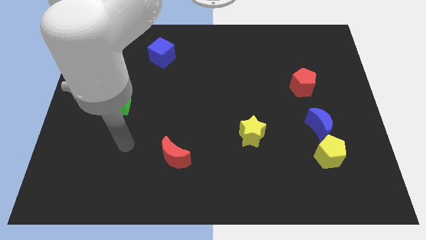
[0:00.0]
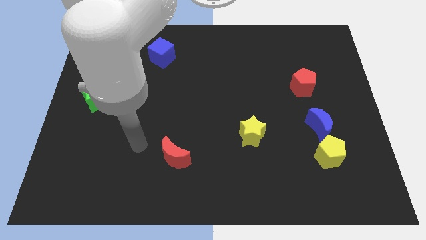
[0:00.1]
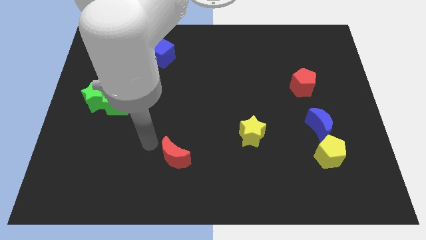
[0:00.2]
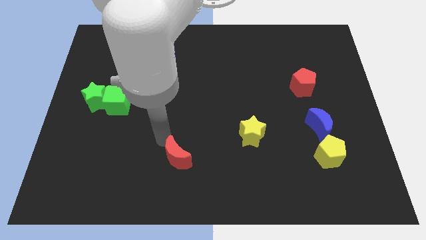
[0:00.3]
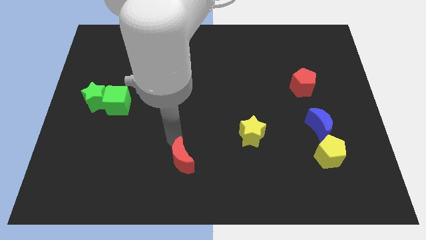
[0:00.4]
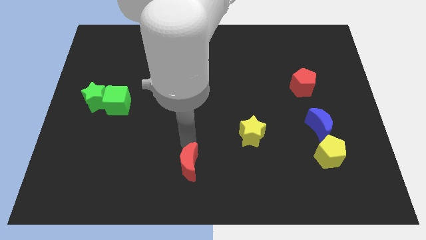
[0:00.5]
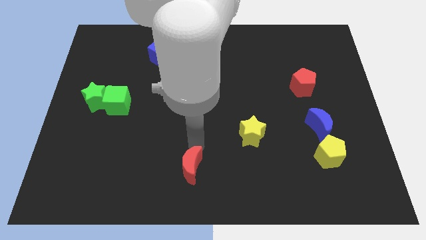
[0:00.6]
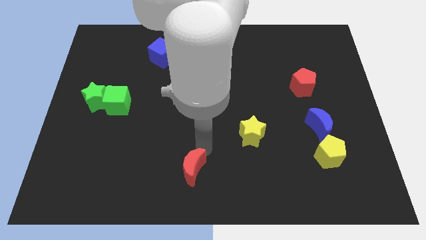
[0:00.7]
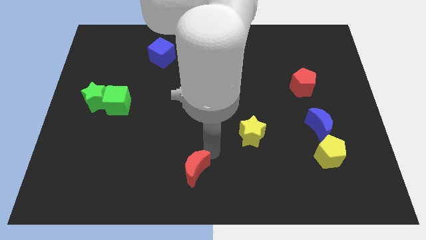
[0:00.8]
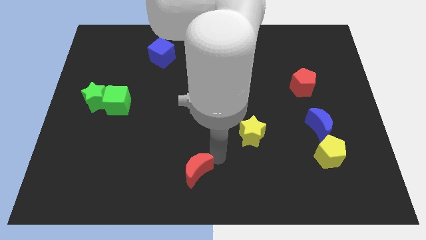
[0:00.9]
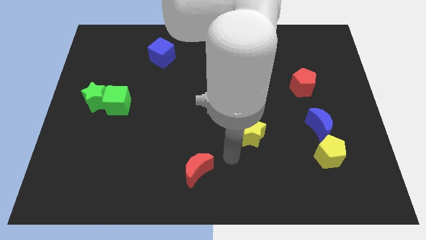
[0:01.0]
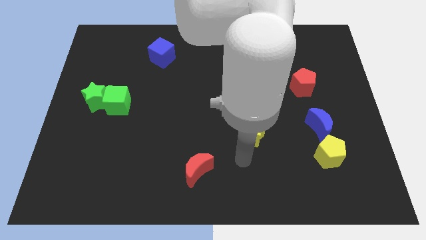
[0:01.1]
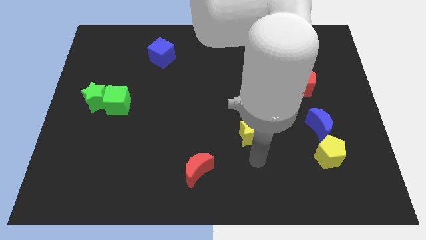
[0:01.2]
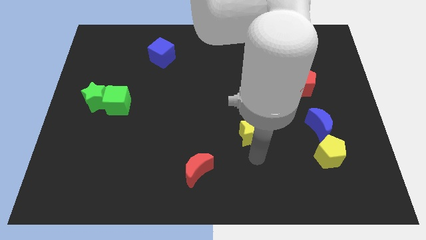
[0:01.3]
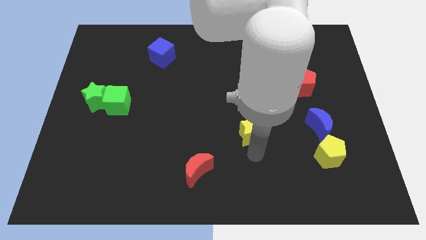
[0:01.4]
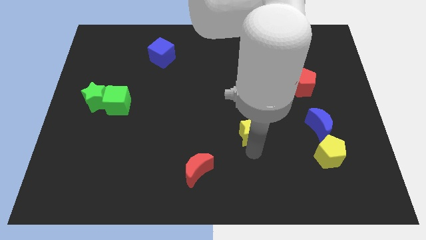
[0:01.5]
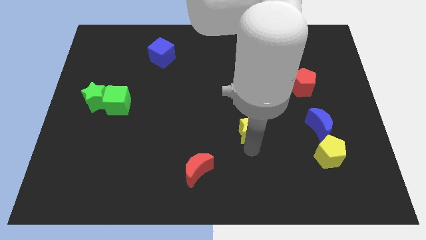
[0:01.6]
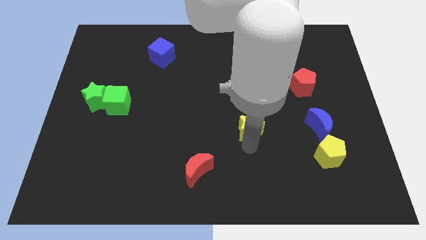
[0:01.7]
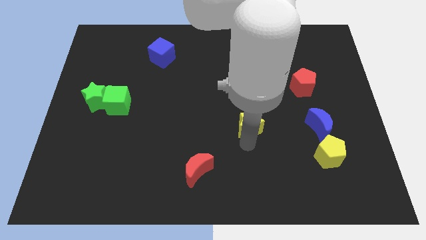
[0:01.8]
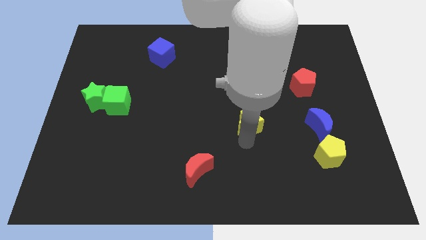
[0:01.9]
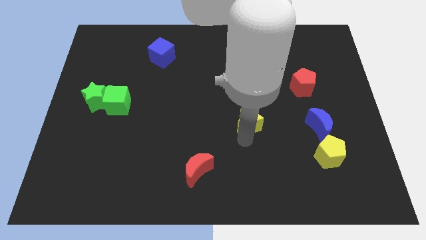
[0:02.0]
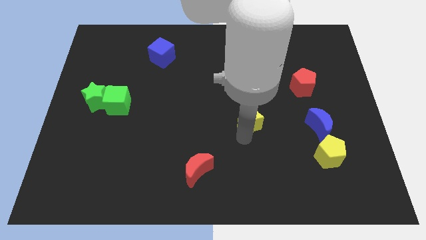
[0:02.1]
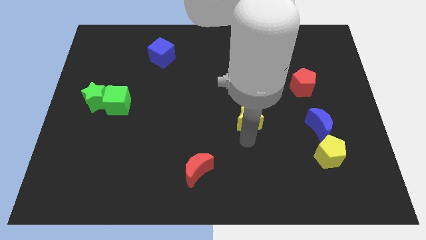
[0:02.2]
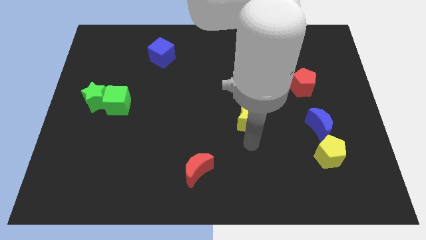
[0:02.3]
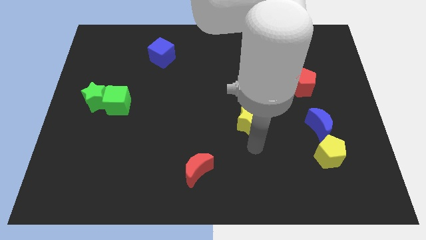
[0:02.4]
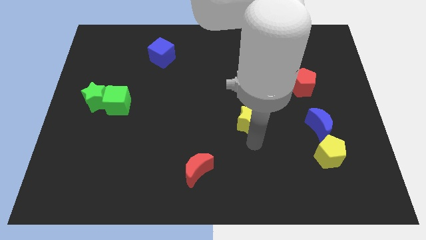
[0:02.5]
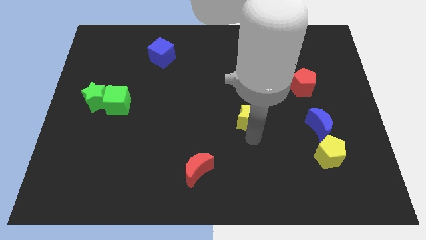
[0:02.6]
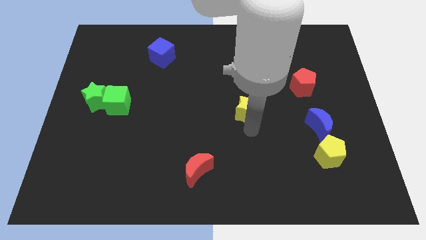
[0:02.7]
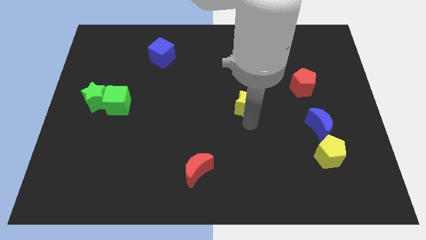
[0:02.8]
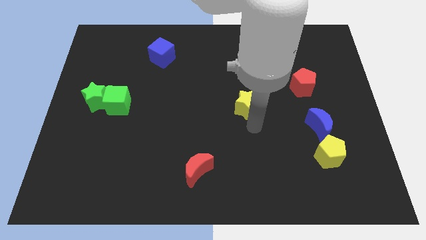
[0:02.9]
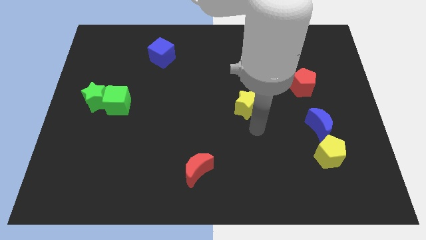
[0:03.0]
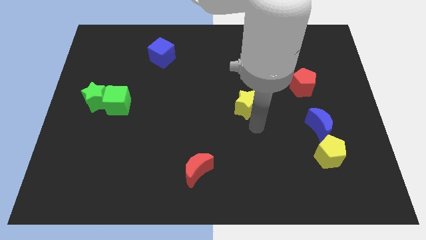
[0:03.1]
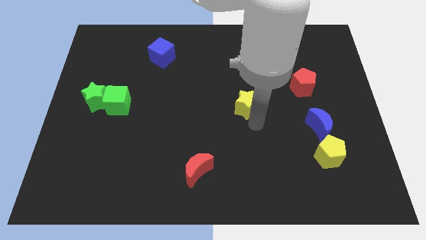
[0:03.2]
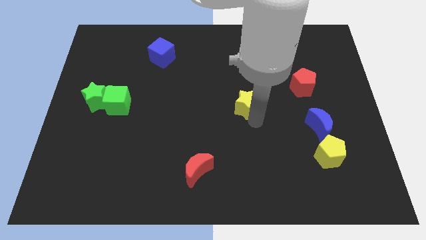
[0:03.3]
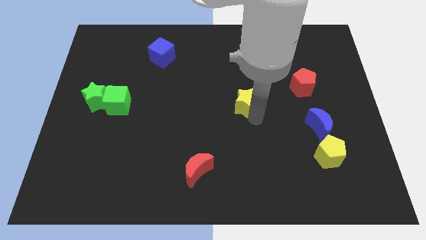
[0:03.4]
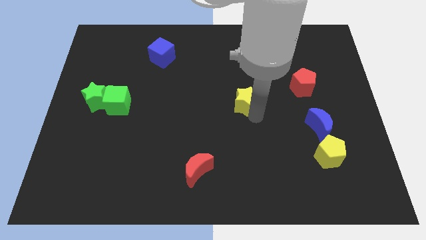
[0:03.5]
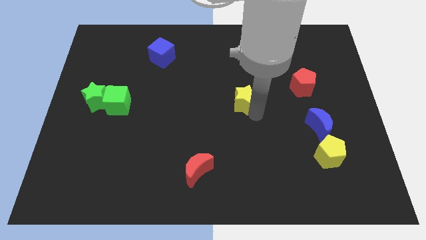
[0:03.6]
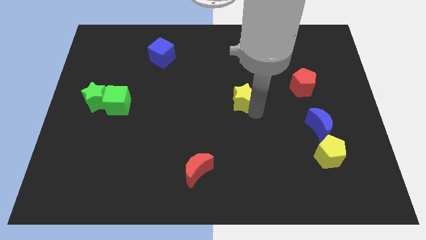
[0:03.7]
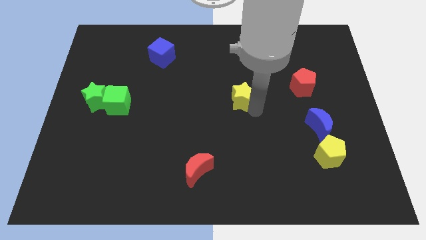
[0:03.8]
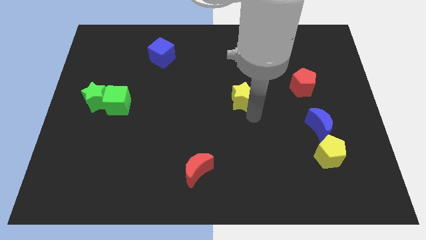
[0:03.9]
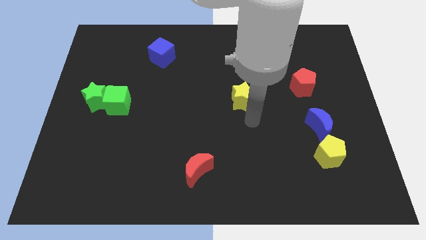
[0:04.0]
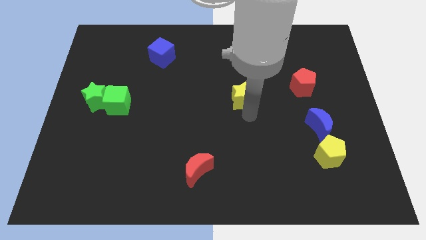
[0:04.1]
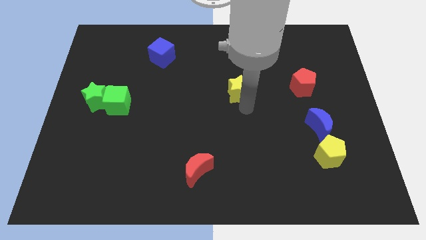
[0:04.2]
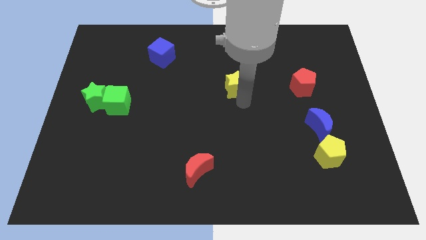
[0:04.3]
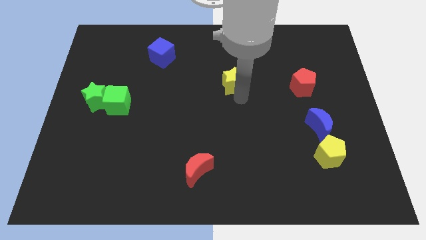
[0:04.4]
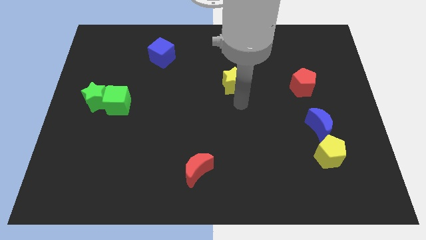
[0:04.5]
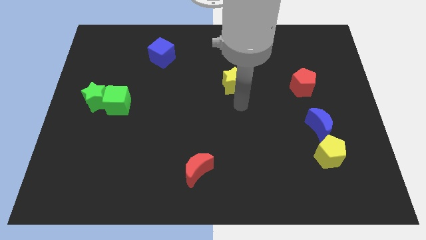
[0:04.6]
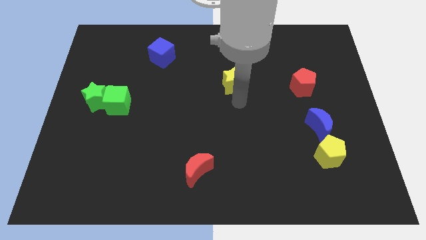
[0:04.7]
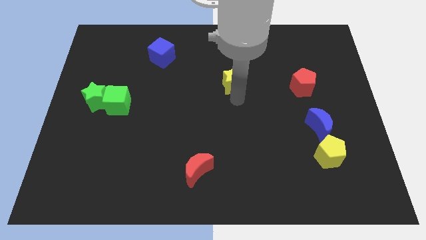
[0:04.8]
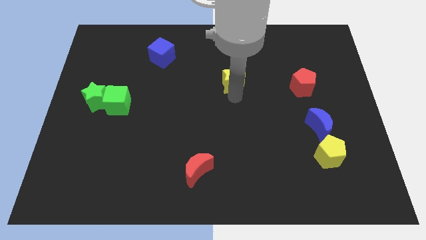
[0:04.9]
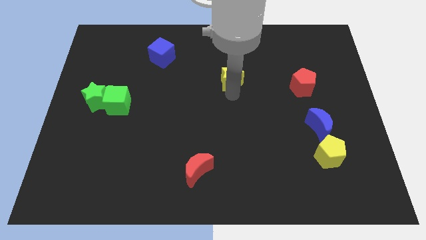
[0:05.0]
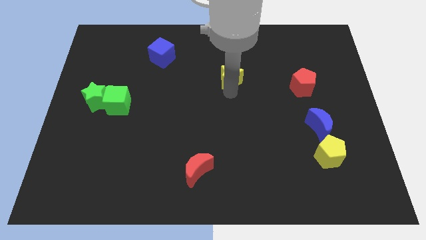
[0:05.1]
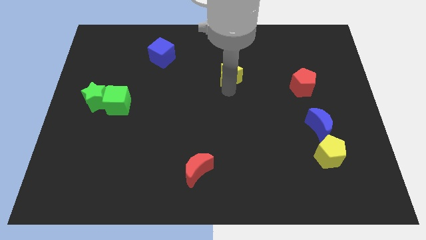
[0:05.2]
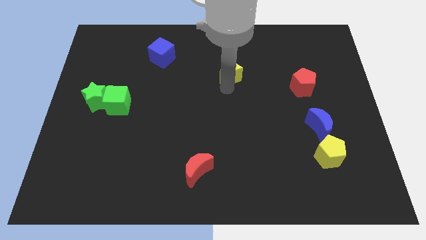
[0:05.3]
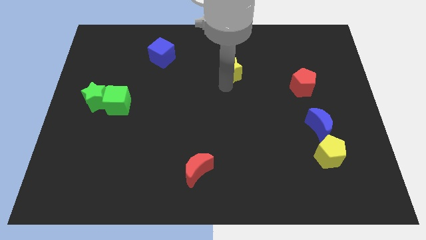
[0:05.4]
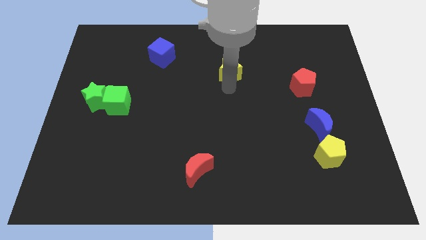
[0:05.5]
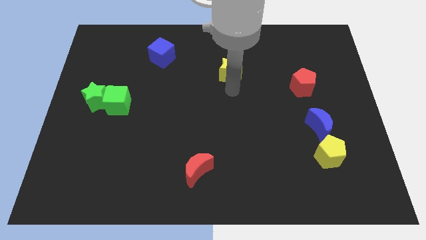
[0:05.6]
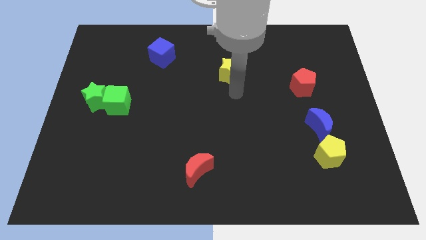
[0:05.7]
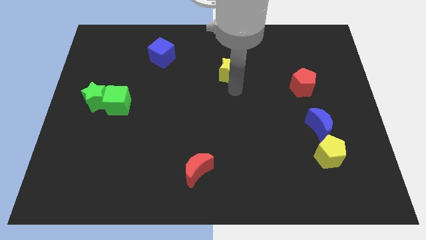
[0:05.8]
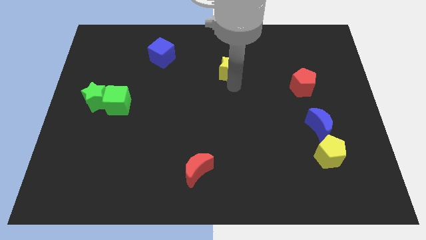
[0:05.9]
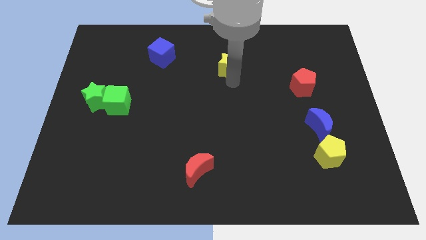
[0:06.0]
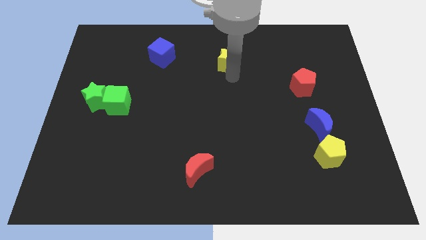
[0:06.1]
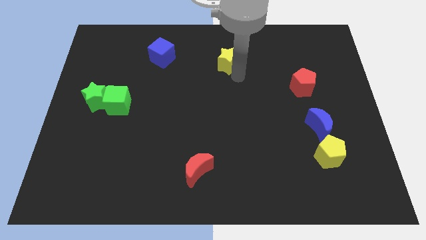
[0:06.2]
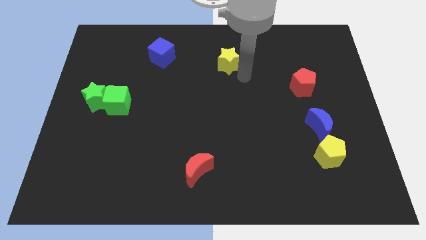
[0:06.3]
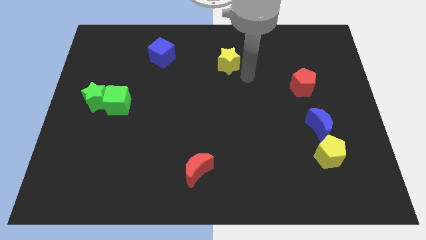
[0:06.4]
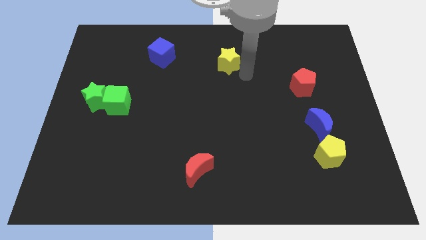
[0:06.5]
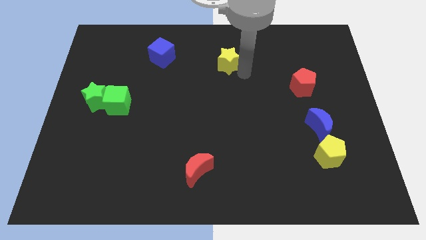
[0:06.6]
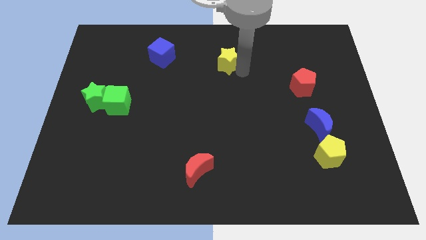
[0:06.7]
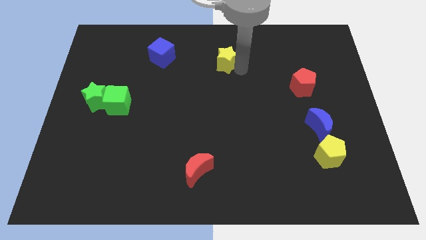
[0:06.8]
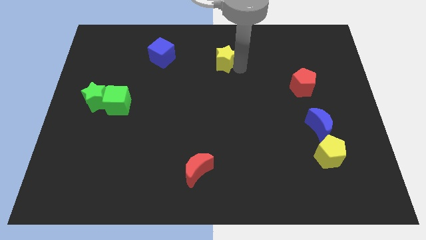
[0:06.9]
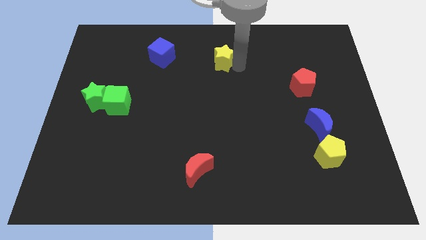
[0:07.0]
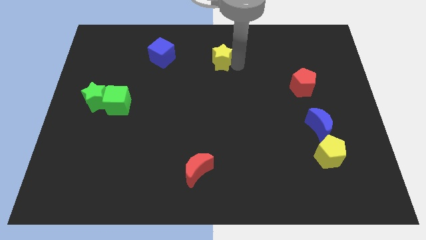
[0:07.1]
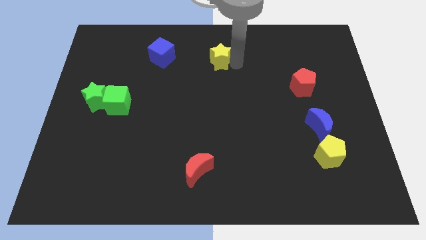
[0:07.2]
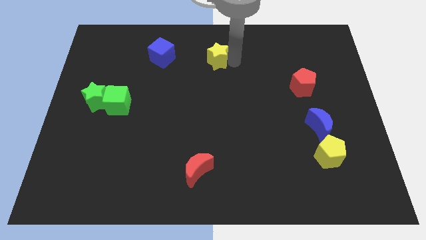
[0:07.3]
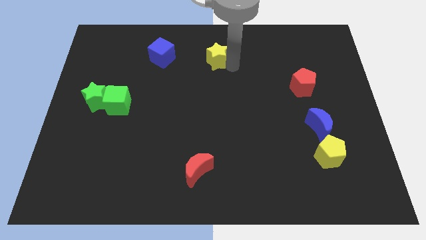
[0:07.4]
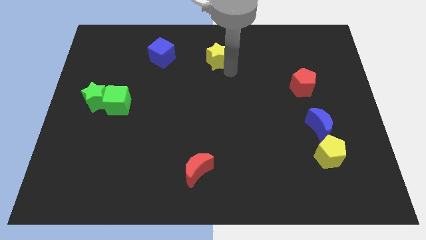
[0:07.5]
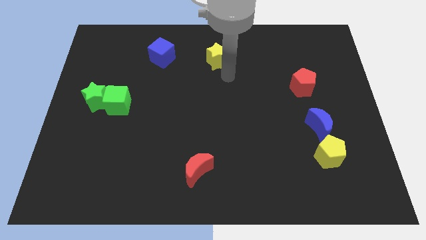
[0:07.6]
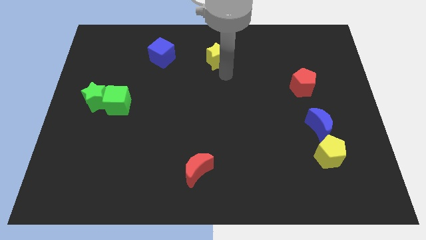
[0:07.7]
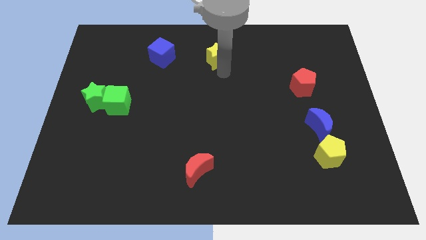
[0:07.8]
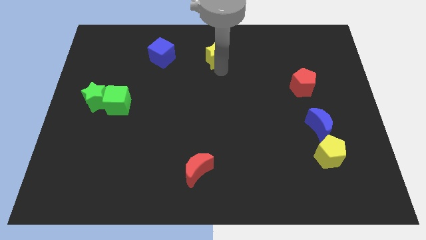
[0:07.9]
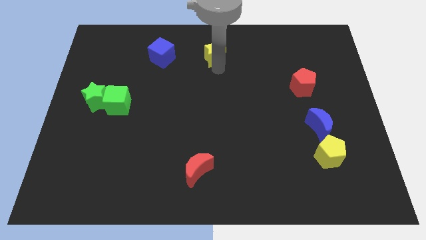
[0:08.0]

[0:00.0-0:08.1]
put the yellow star to the top side
